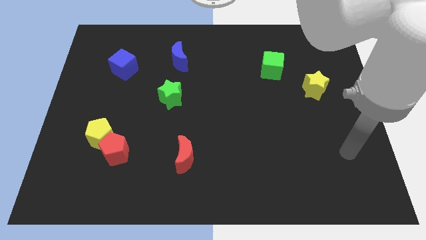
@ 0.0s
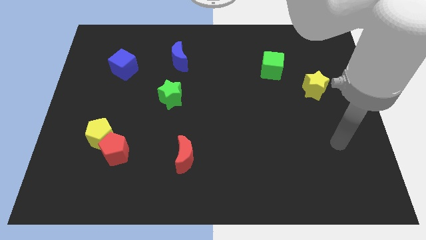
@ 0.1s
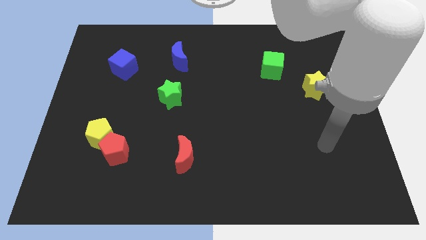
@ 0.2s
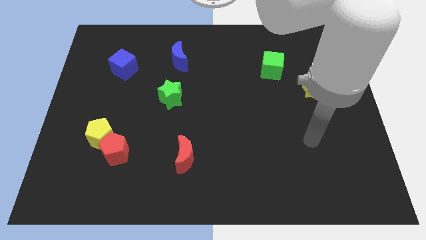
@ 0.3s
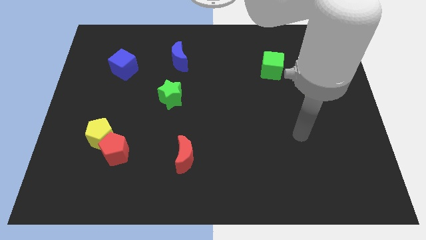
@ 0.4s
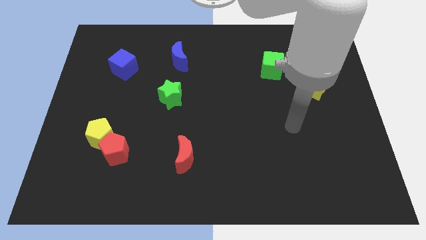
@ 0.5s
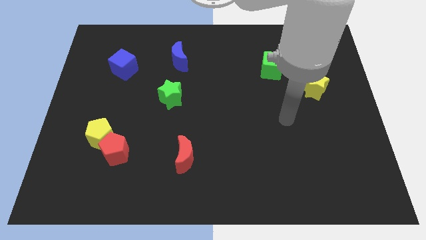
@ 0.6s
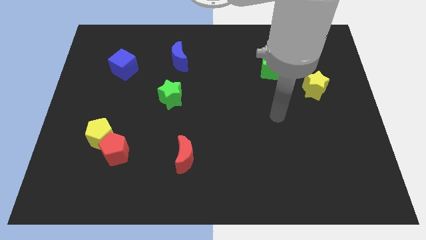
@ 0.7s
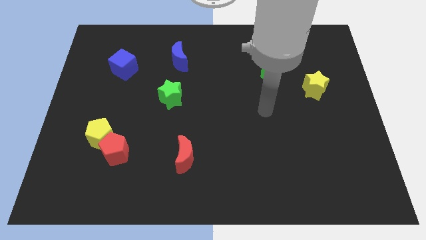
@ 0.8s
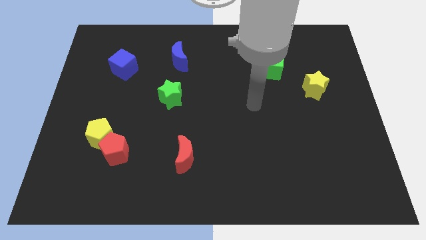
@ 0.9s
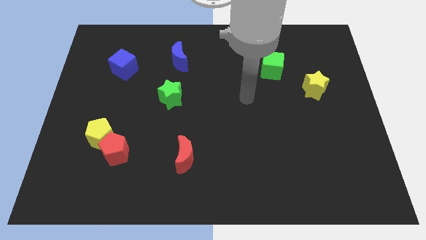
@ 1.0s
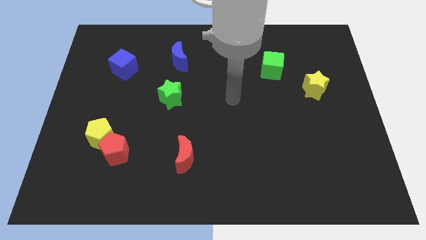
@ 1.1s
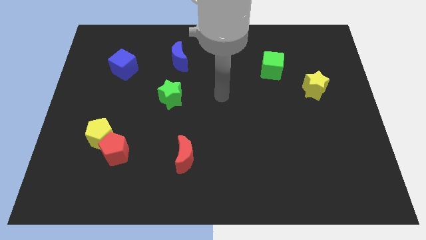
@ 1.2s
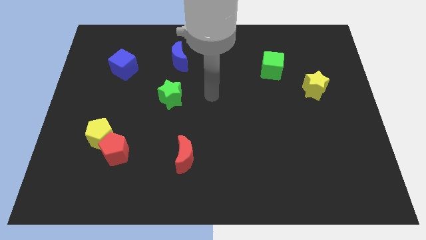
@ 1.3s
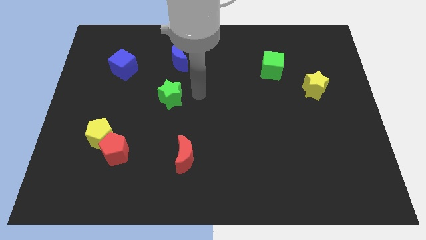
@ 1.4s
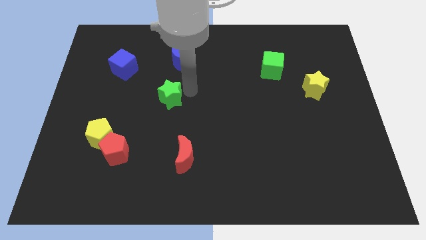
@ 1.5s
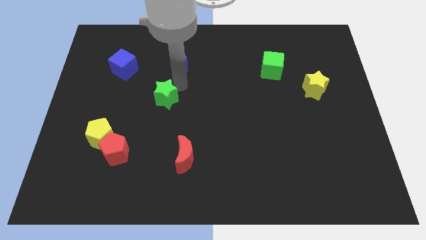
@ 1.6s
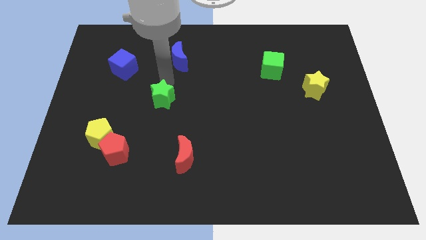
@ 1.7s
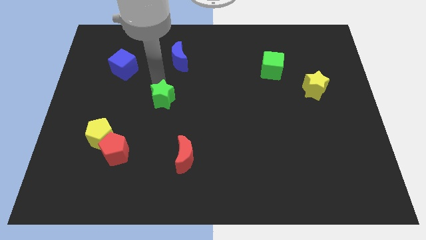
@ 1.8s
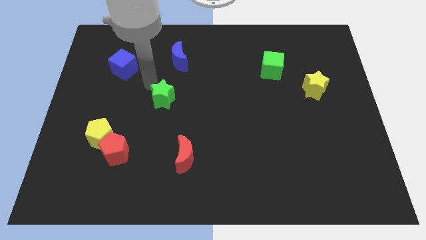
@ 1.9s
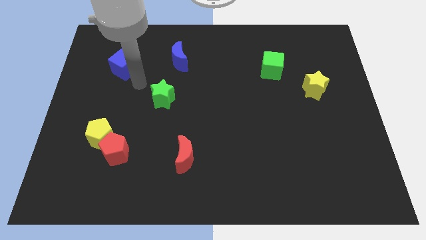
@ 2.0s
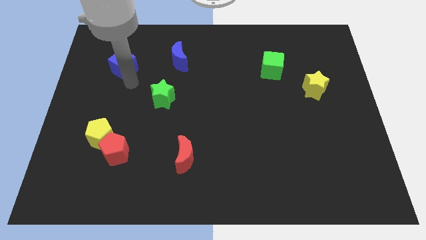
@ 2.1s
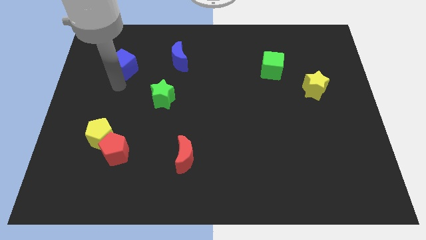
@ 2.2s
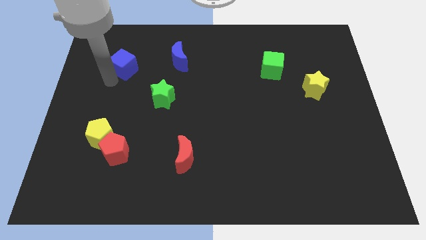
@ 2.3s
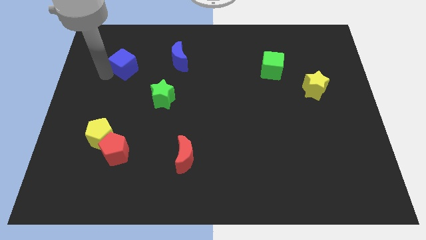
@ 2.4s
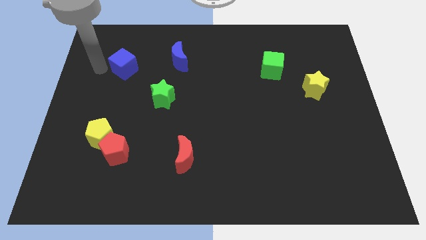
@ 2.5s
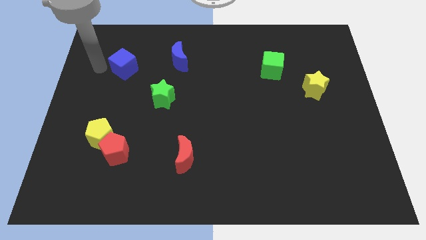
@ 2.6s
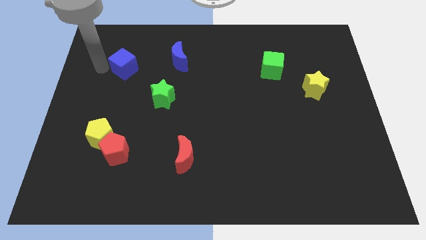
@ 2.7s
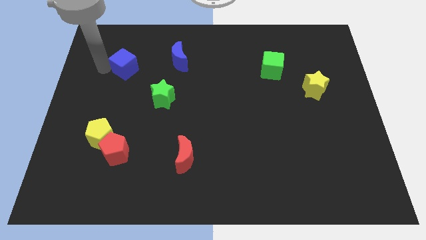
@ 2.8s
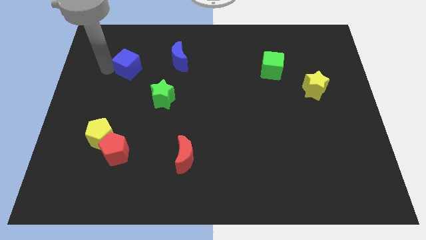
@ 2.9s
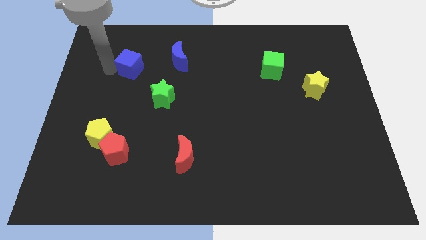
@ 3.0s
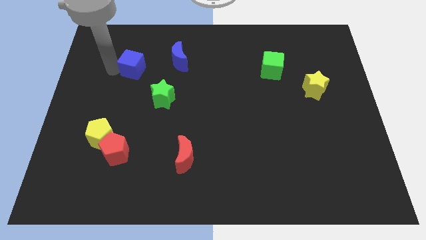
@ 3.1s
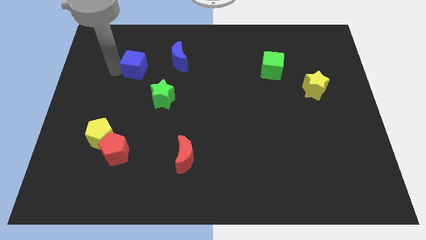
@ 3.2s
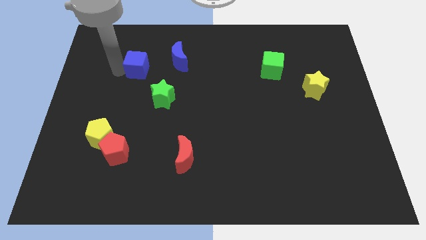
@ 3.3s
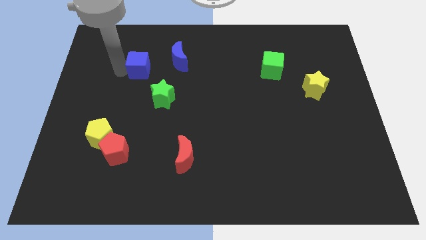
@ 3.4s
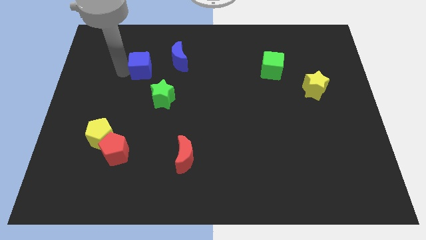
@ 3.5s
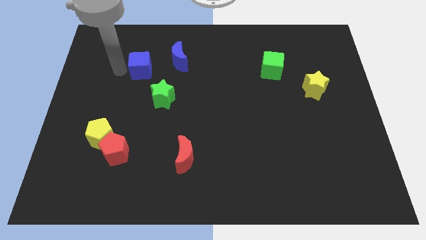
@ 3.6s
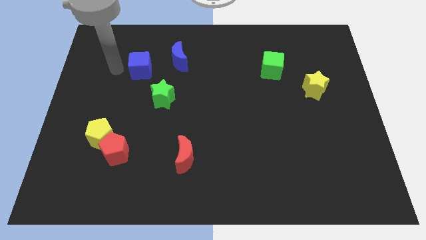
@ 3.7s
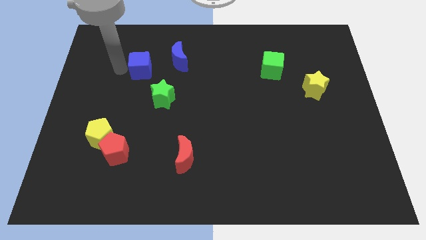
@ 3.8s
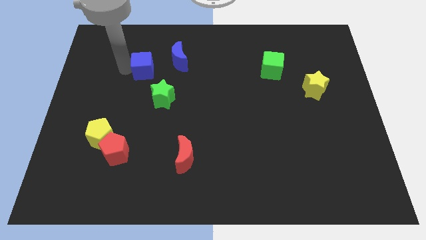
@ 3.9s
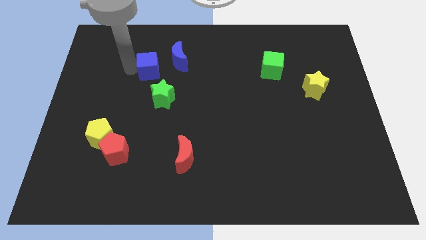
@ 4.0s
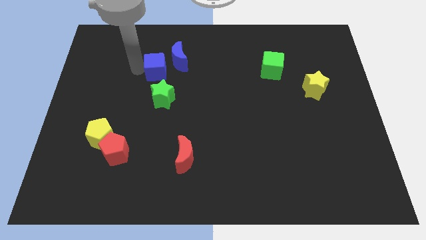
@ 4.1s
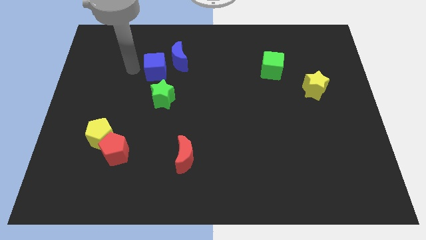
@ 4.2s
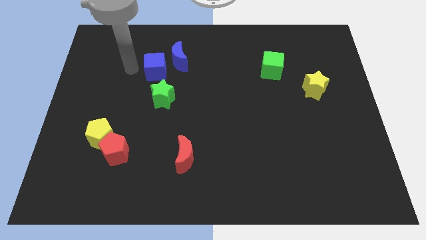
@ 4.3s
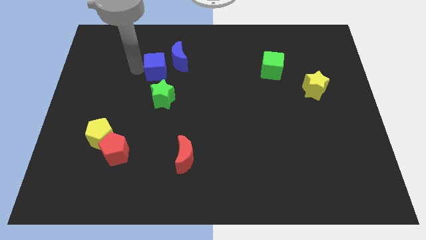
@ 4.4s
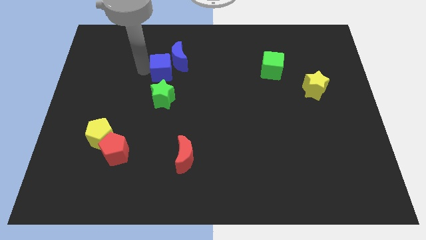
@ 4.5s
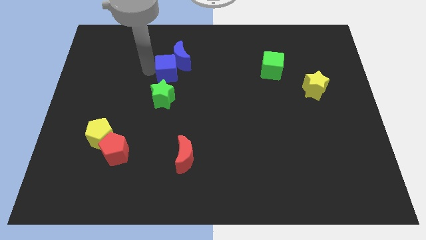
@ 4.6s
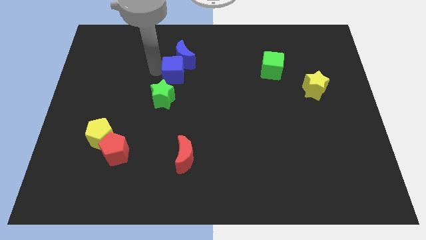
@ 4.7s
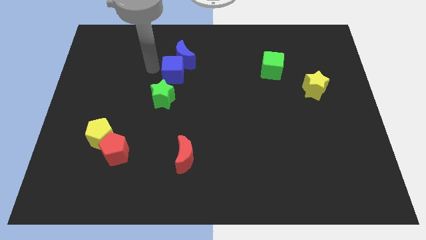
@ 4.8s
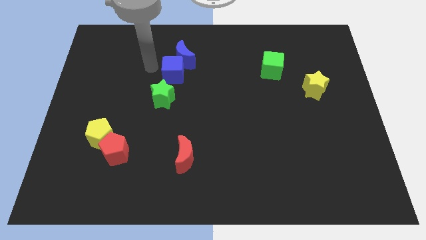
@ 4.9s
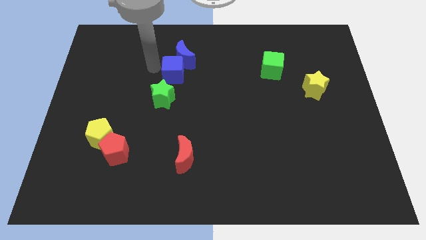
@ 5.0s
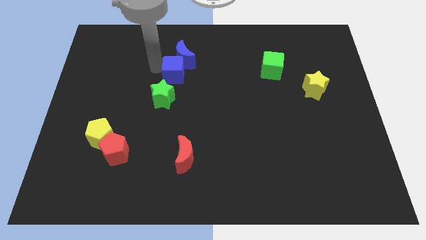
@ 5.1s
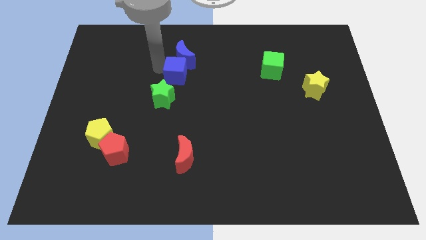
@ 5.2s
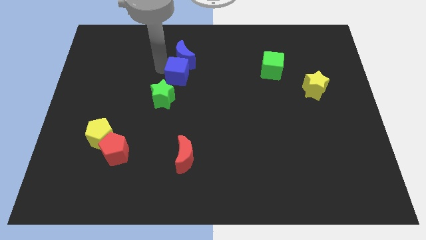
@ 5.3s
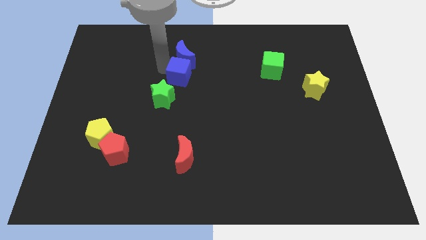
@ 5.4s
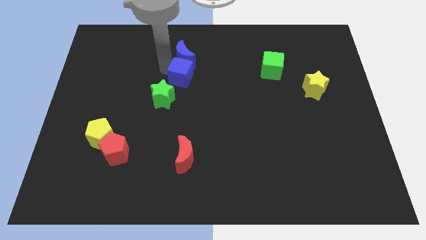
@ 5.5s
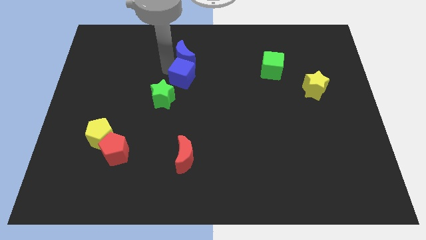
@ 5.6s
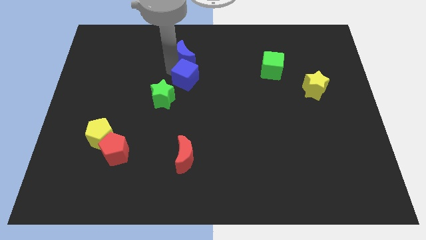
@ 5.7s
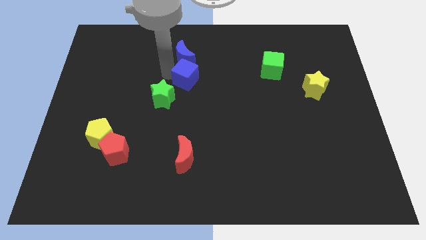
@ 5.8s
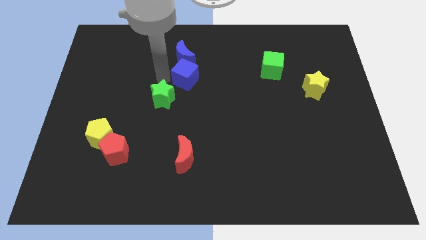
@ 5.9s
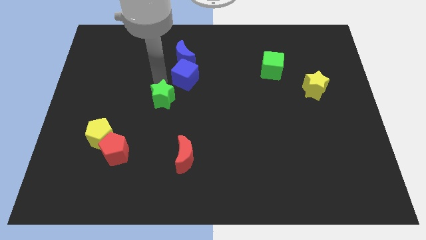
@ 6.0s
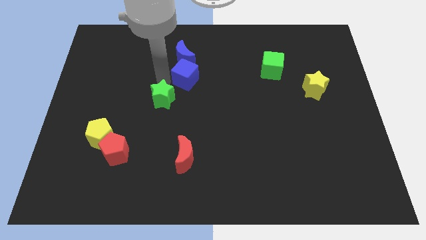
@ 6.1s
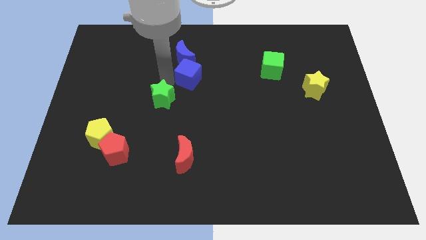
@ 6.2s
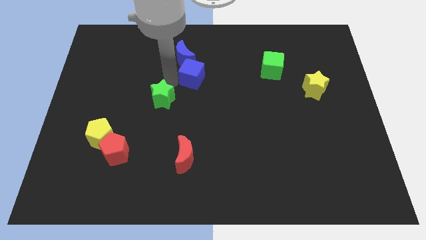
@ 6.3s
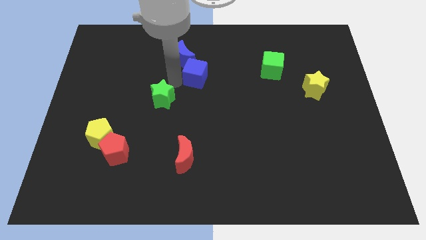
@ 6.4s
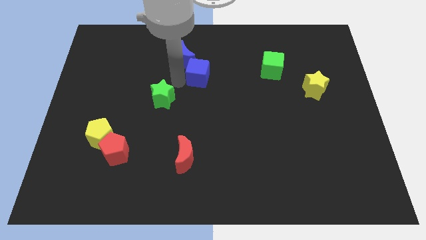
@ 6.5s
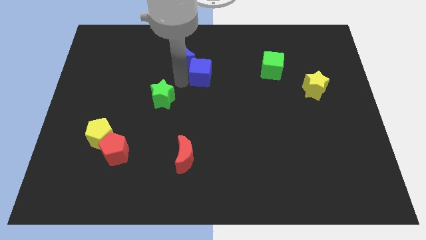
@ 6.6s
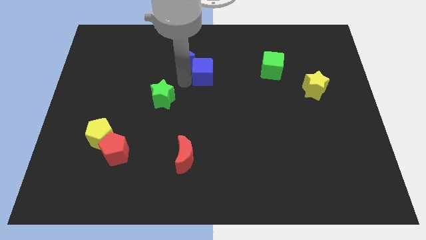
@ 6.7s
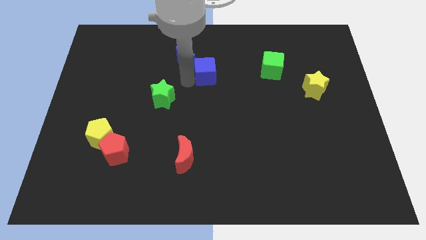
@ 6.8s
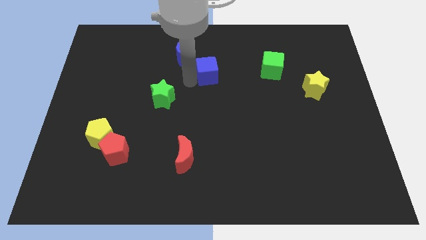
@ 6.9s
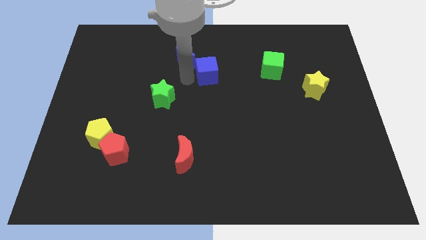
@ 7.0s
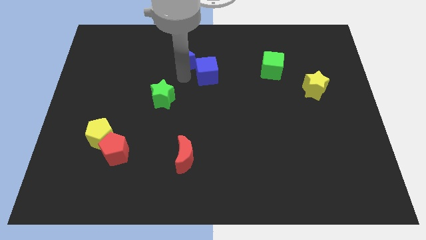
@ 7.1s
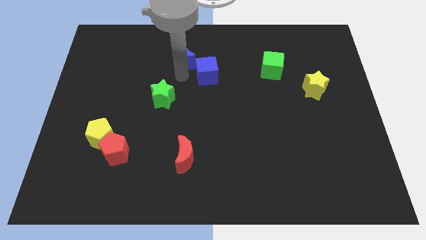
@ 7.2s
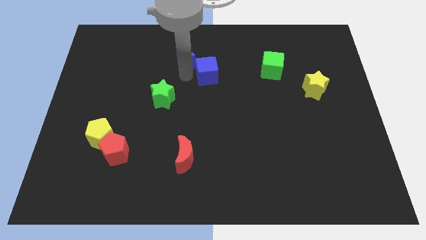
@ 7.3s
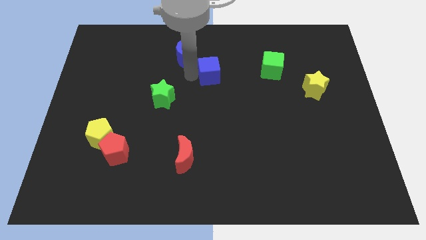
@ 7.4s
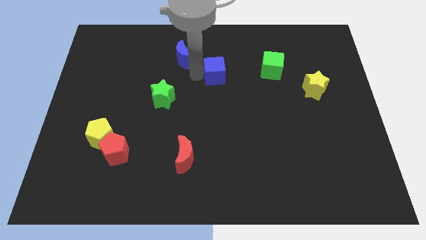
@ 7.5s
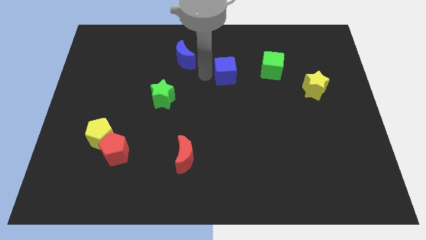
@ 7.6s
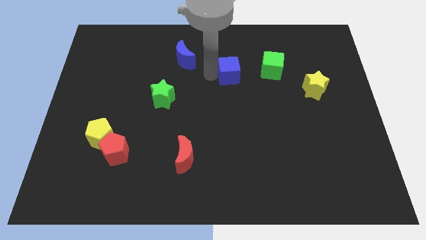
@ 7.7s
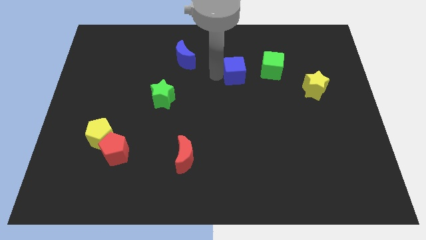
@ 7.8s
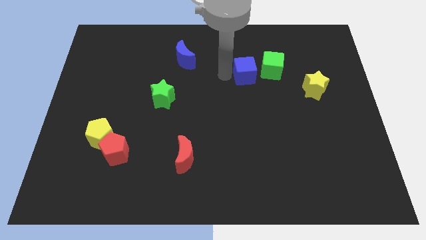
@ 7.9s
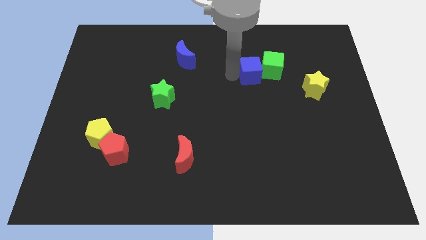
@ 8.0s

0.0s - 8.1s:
move the blue cube to the green cube
